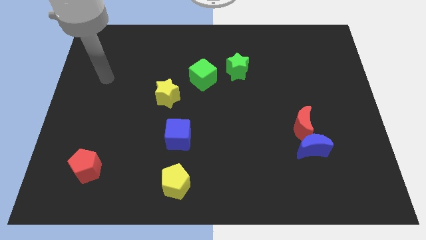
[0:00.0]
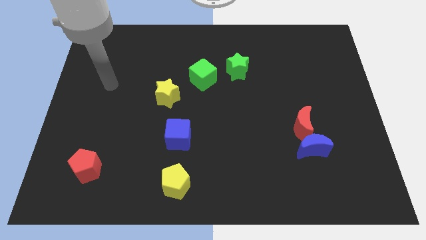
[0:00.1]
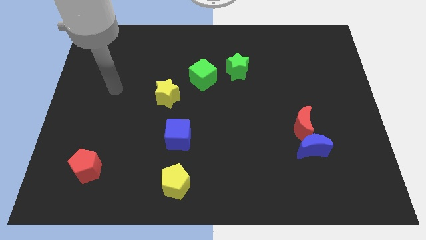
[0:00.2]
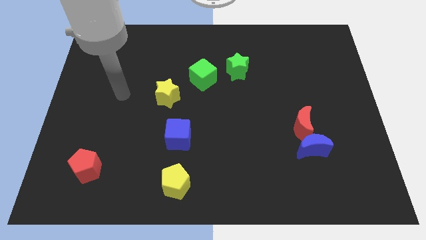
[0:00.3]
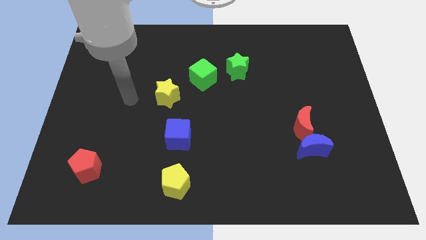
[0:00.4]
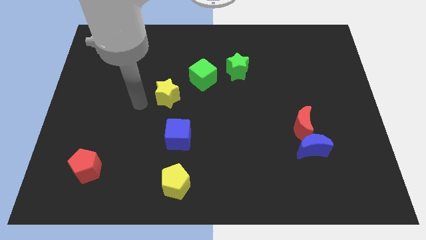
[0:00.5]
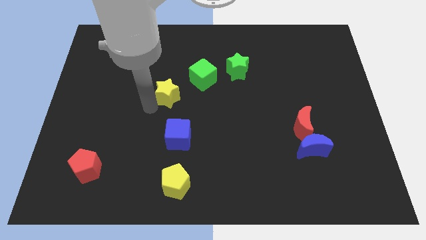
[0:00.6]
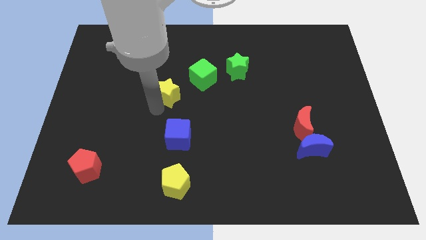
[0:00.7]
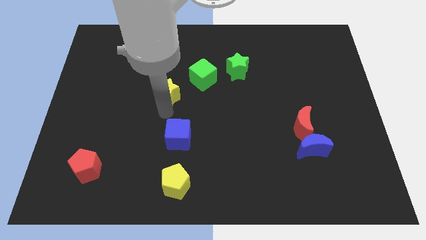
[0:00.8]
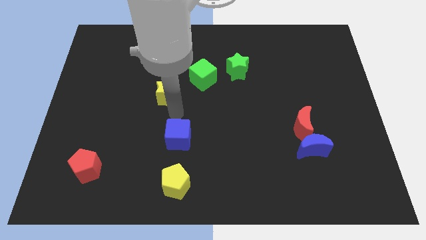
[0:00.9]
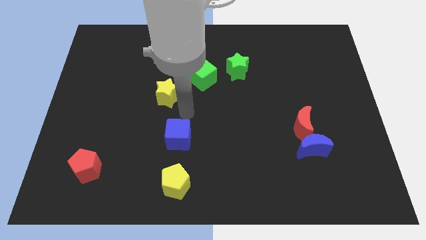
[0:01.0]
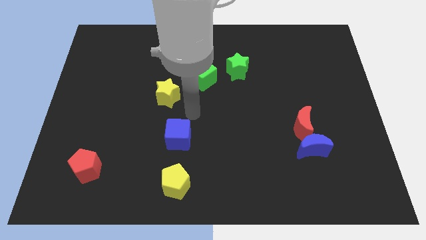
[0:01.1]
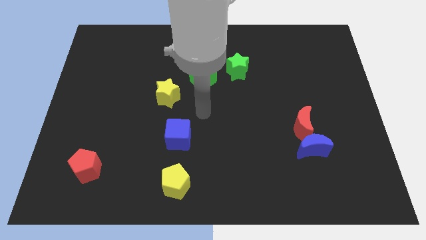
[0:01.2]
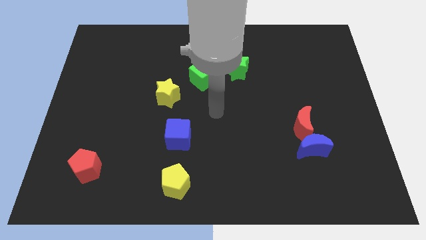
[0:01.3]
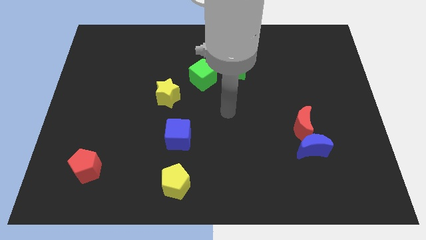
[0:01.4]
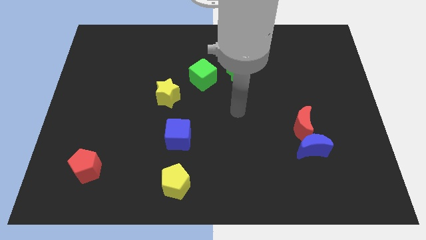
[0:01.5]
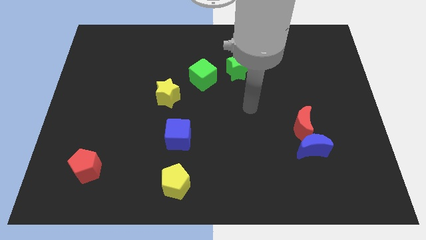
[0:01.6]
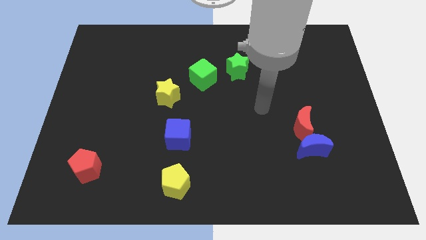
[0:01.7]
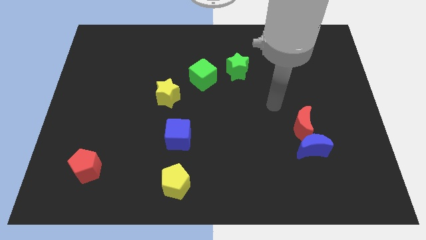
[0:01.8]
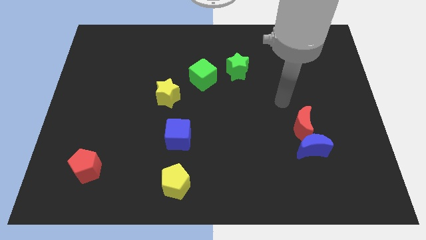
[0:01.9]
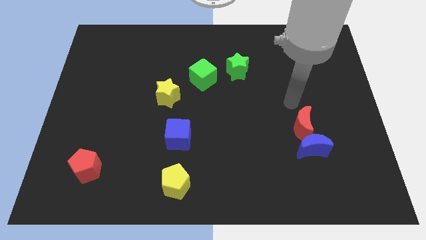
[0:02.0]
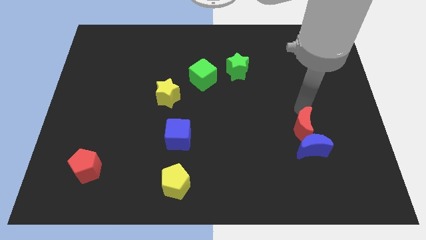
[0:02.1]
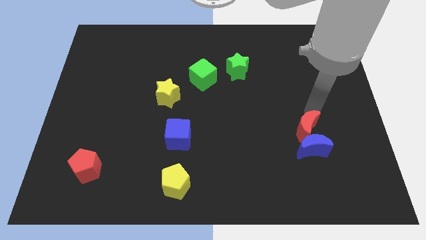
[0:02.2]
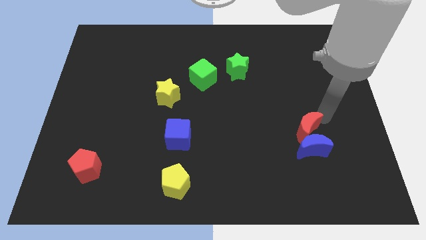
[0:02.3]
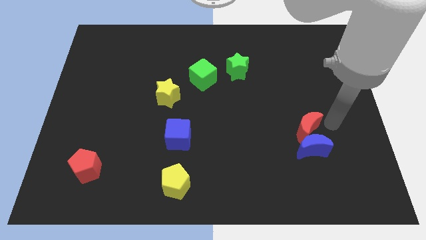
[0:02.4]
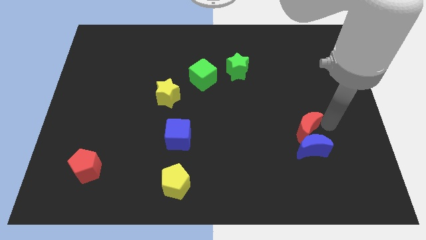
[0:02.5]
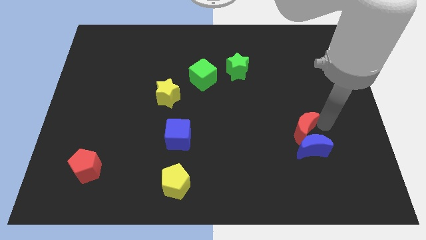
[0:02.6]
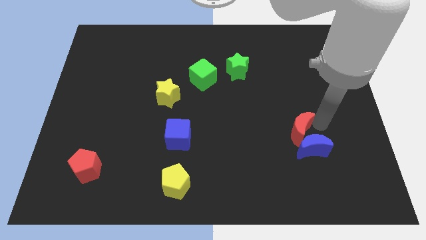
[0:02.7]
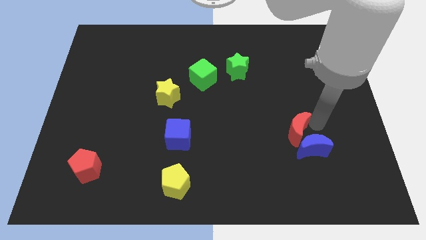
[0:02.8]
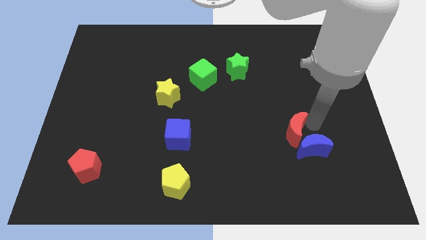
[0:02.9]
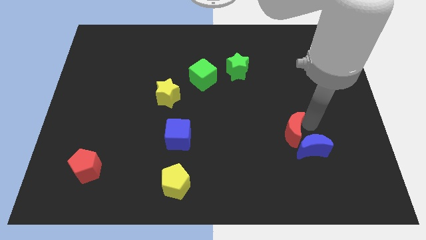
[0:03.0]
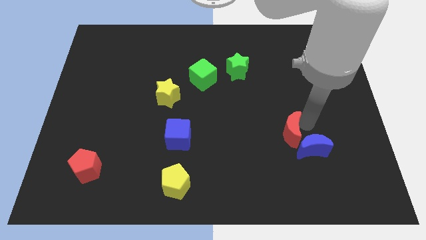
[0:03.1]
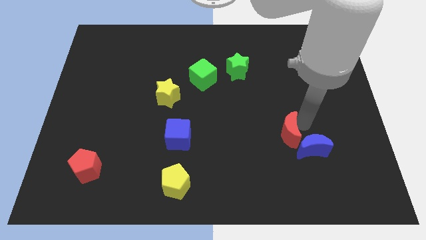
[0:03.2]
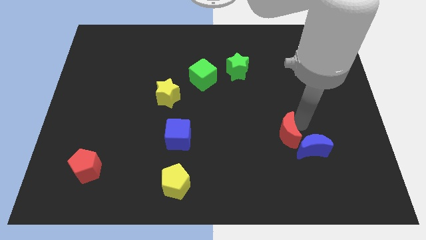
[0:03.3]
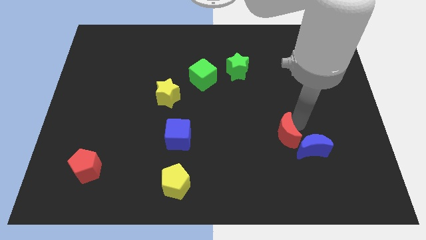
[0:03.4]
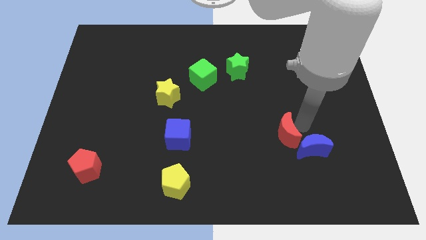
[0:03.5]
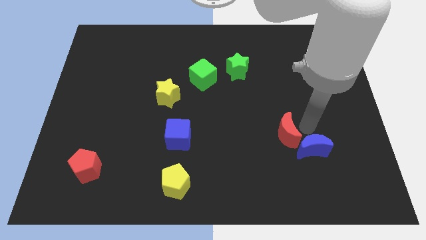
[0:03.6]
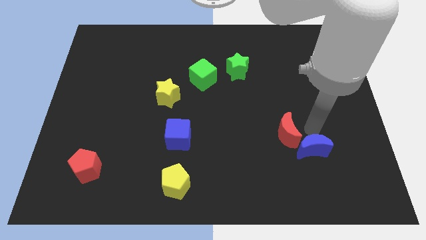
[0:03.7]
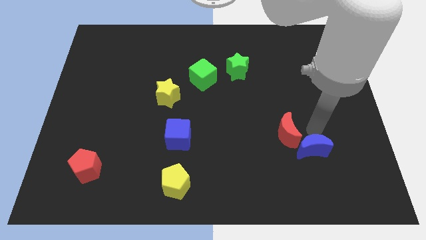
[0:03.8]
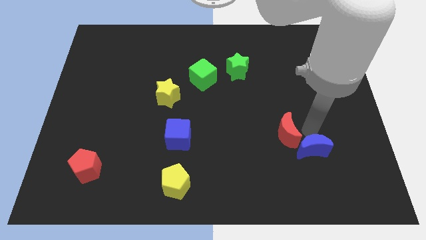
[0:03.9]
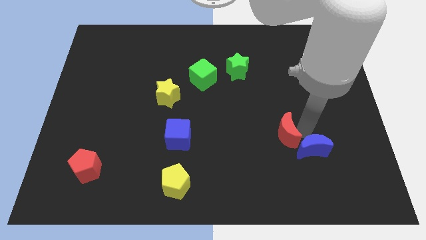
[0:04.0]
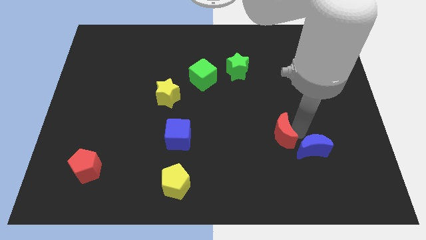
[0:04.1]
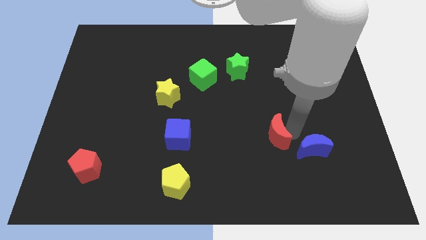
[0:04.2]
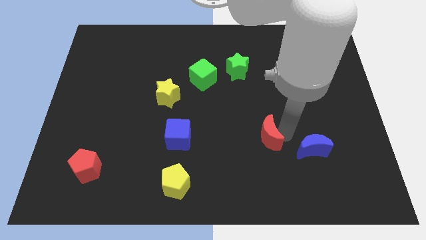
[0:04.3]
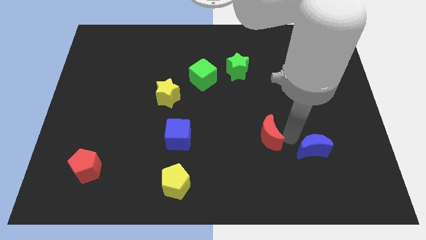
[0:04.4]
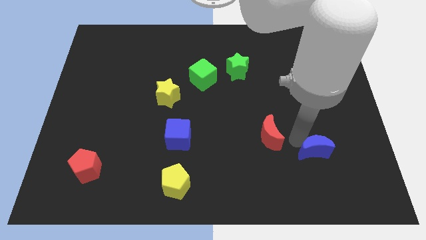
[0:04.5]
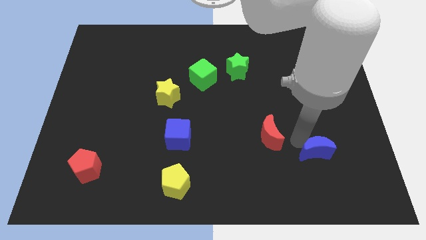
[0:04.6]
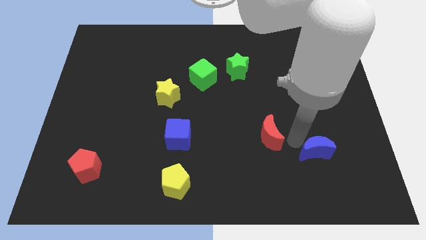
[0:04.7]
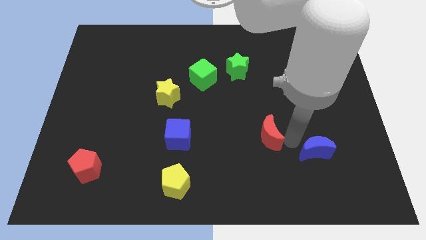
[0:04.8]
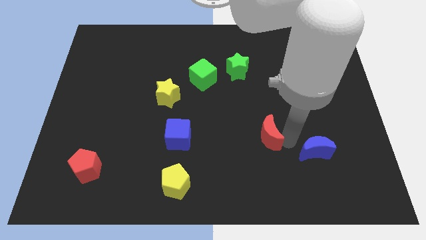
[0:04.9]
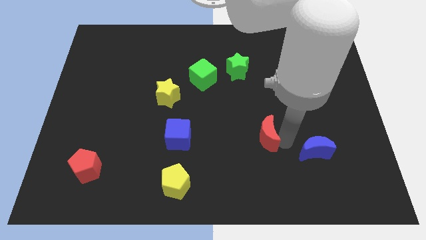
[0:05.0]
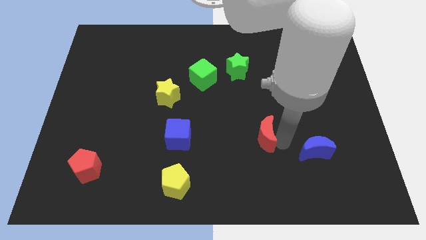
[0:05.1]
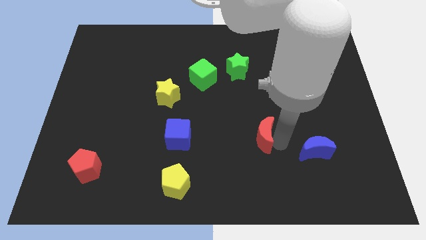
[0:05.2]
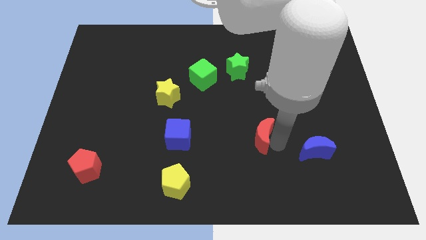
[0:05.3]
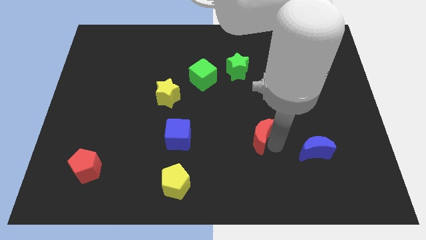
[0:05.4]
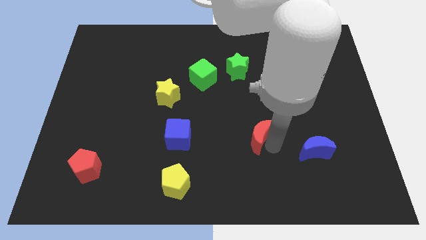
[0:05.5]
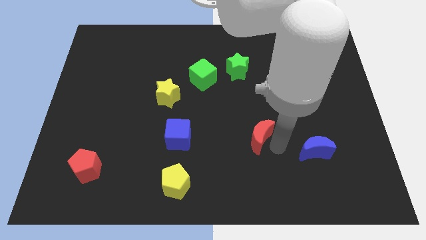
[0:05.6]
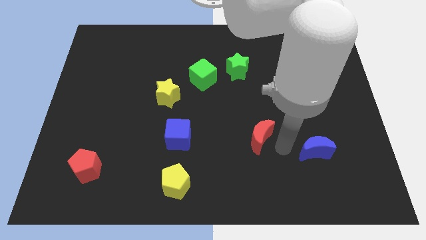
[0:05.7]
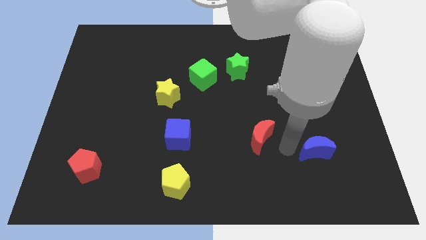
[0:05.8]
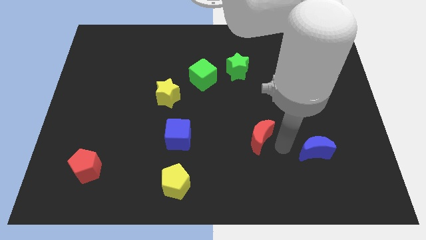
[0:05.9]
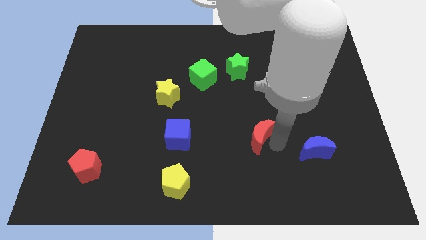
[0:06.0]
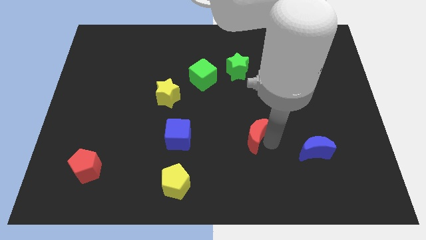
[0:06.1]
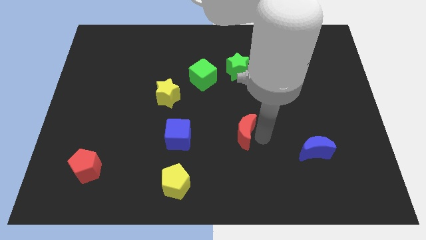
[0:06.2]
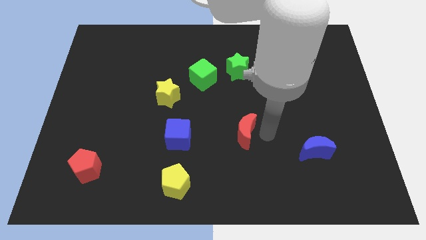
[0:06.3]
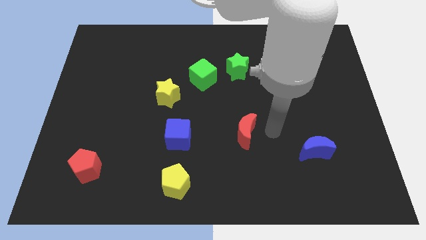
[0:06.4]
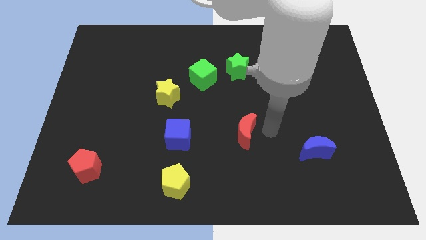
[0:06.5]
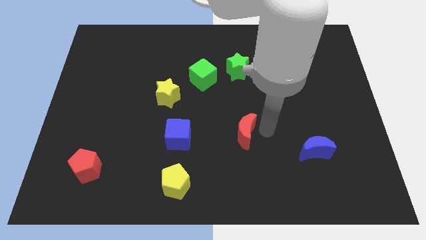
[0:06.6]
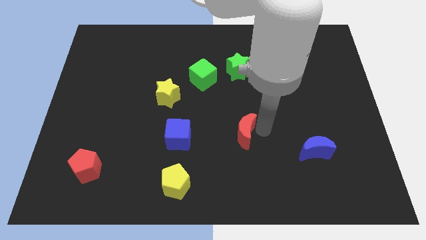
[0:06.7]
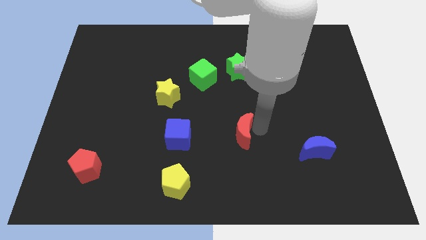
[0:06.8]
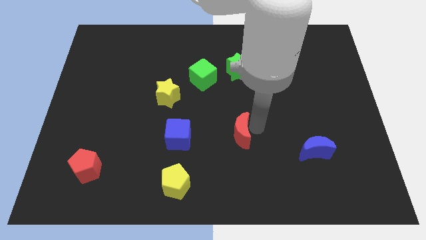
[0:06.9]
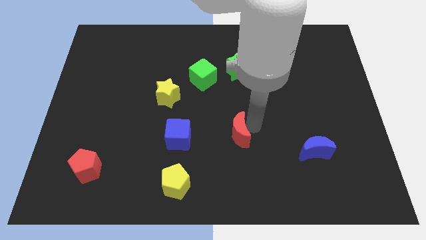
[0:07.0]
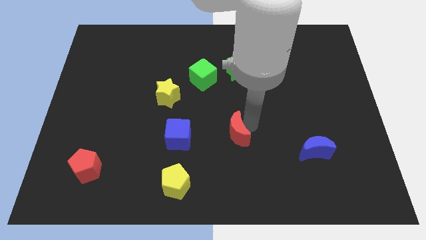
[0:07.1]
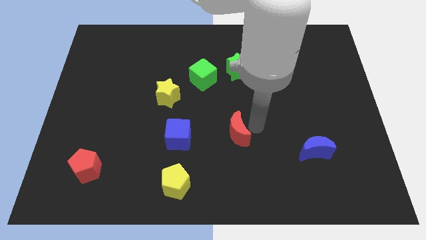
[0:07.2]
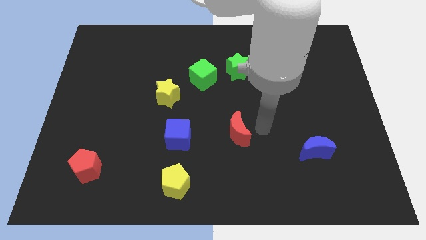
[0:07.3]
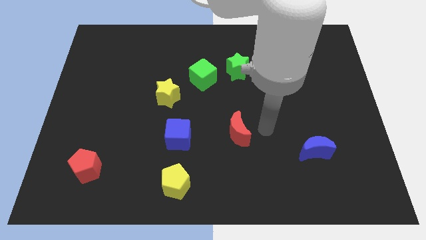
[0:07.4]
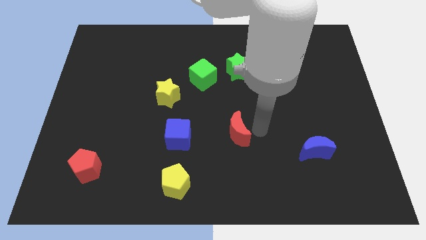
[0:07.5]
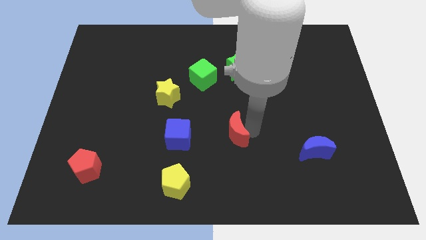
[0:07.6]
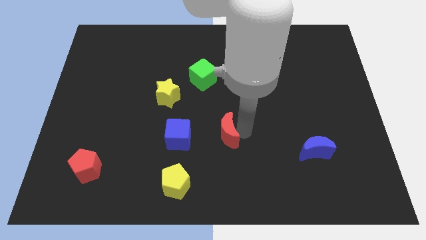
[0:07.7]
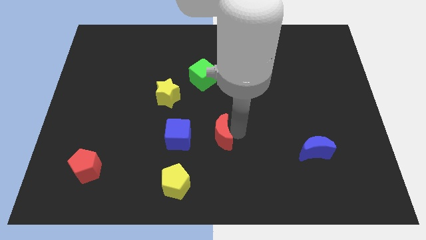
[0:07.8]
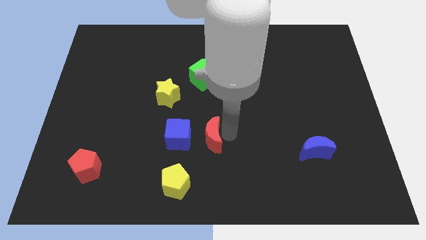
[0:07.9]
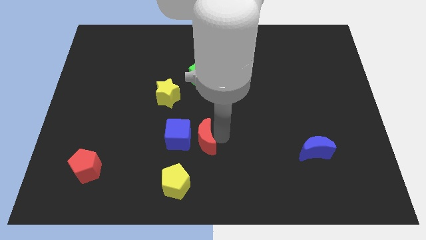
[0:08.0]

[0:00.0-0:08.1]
move the red moon to the blue cube
